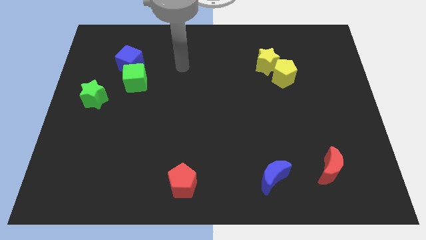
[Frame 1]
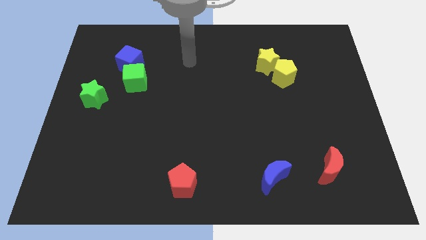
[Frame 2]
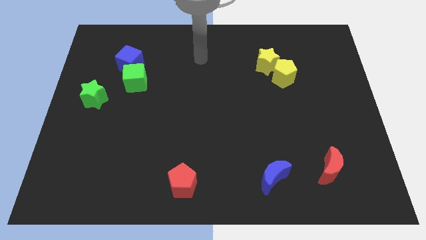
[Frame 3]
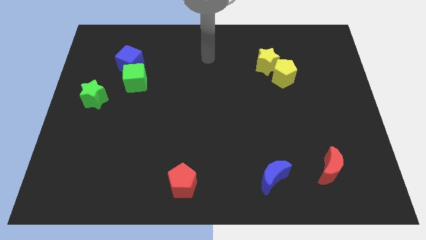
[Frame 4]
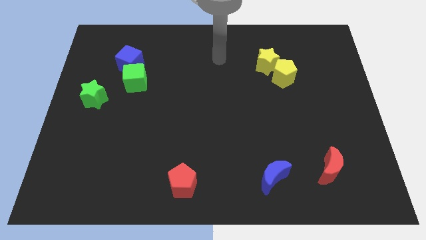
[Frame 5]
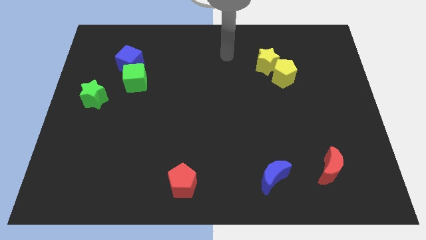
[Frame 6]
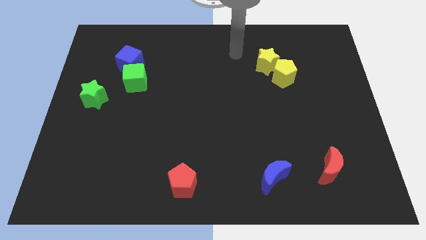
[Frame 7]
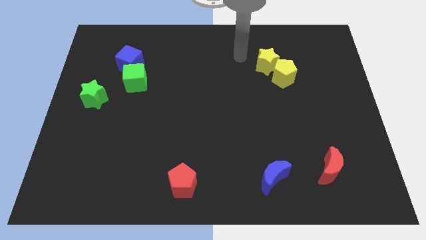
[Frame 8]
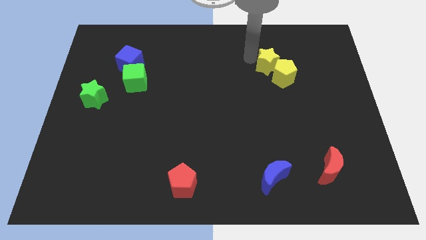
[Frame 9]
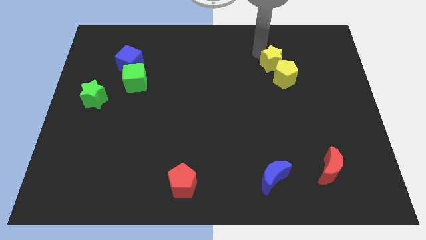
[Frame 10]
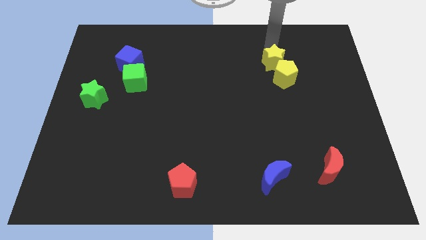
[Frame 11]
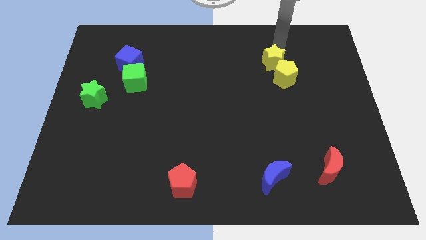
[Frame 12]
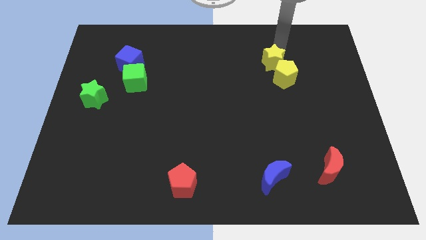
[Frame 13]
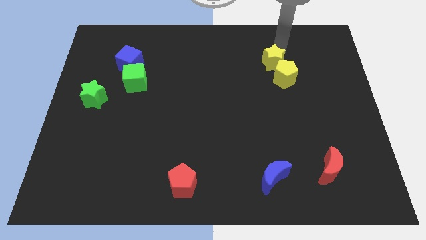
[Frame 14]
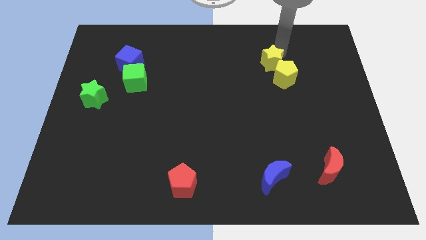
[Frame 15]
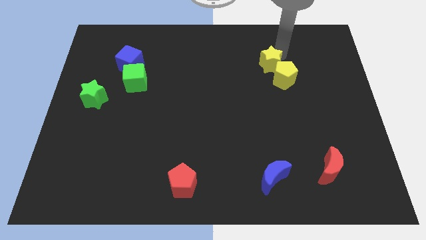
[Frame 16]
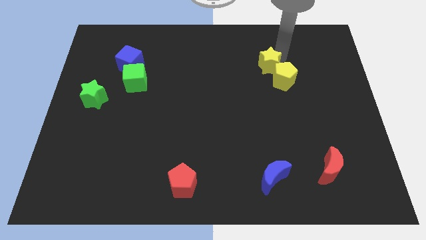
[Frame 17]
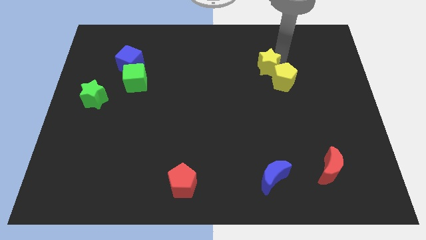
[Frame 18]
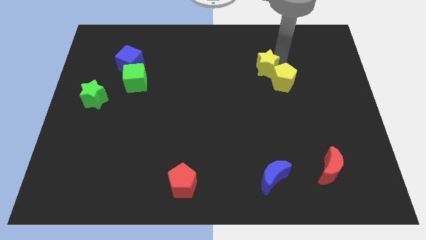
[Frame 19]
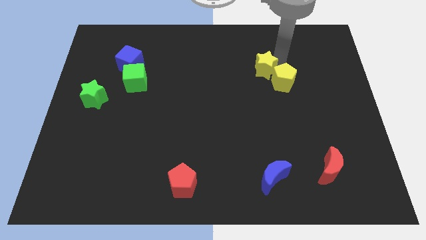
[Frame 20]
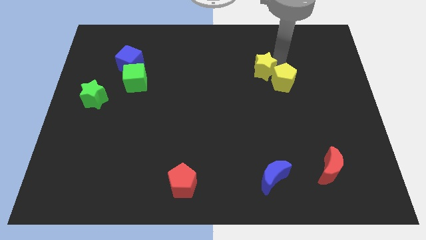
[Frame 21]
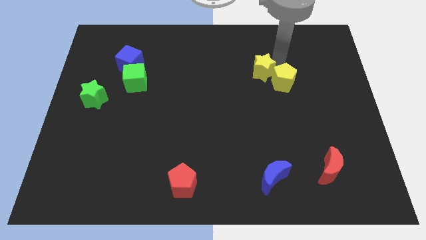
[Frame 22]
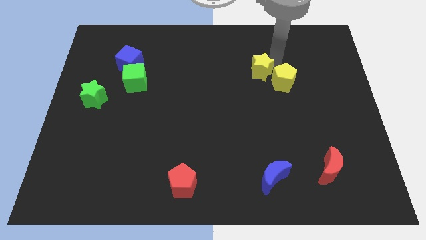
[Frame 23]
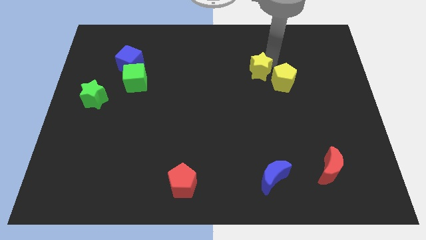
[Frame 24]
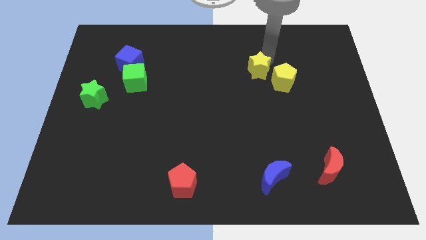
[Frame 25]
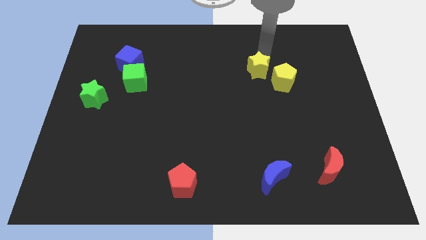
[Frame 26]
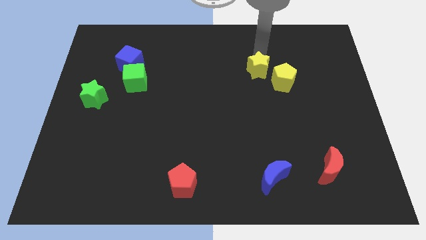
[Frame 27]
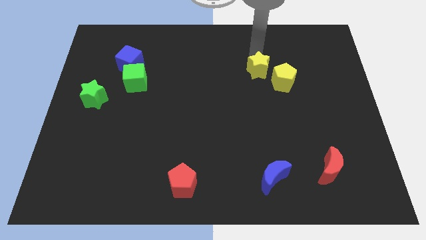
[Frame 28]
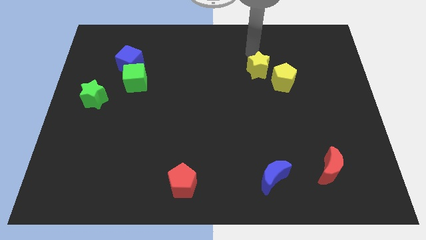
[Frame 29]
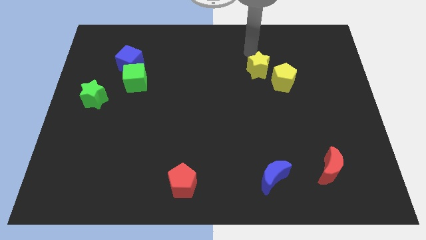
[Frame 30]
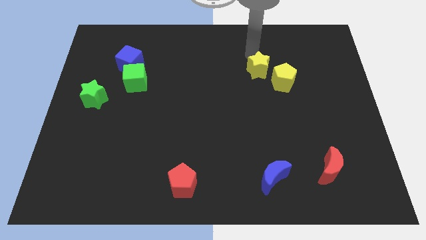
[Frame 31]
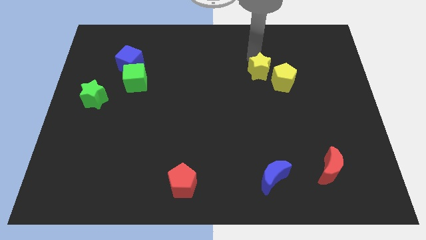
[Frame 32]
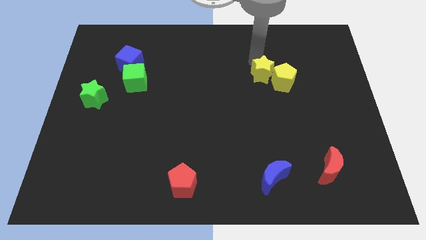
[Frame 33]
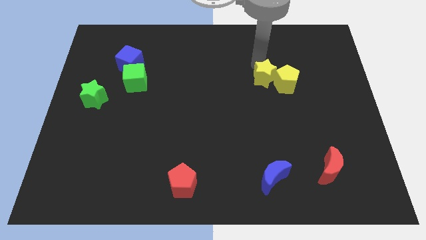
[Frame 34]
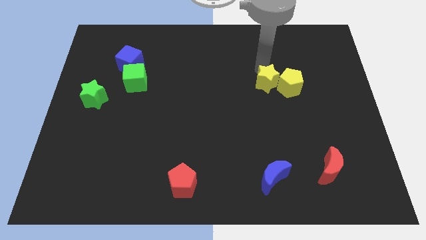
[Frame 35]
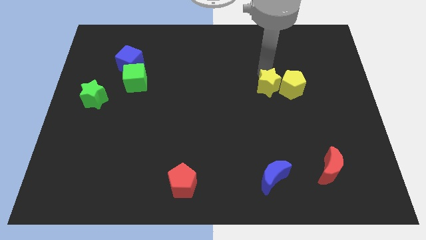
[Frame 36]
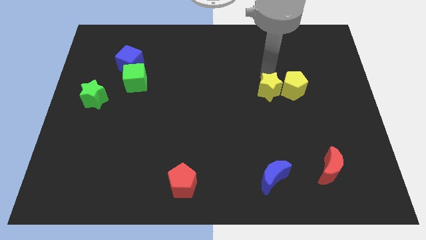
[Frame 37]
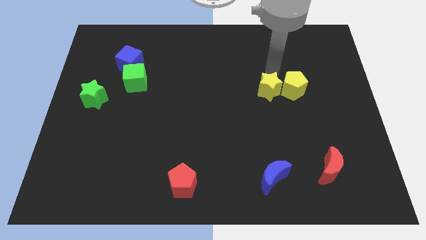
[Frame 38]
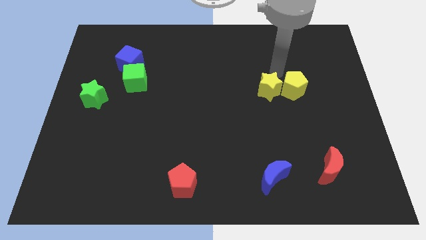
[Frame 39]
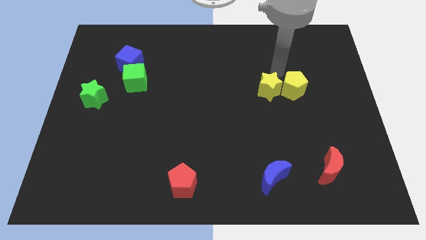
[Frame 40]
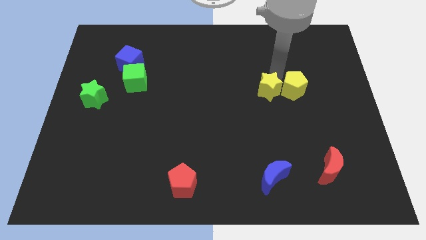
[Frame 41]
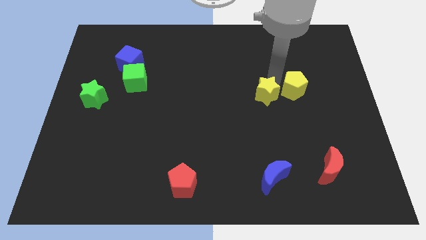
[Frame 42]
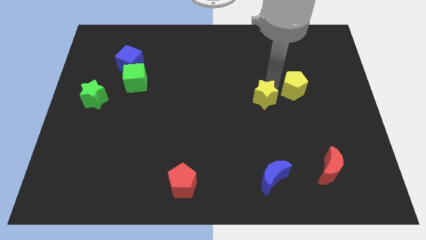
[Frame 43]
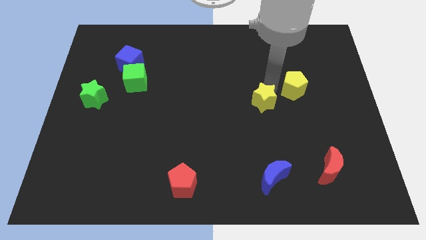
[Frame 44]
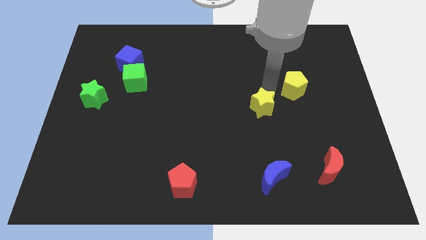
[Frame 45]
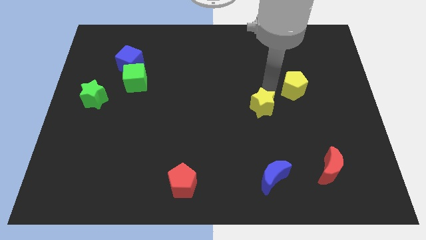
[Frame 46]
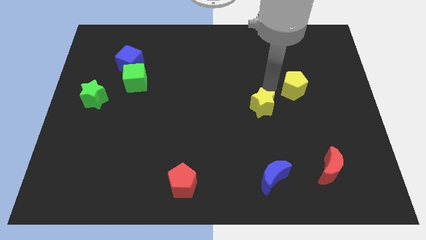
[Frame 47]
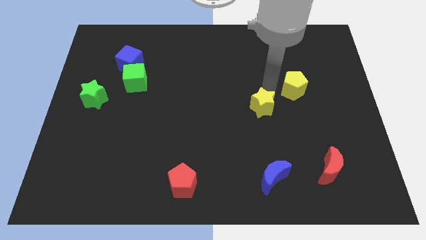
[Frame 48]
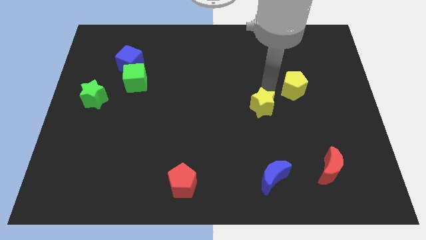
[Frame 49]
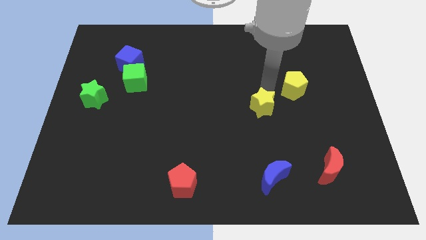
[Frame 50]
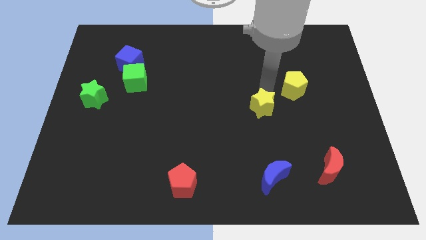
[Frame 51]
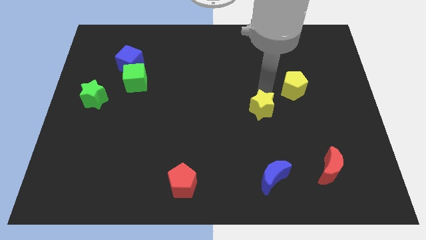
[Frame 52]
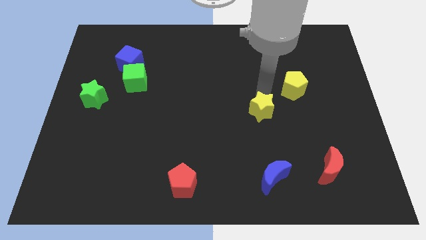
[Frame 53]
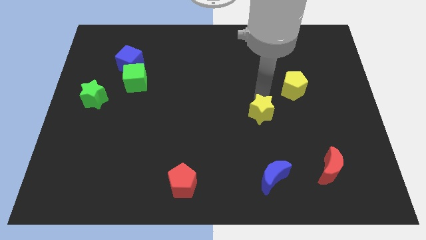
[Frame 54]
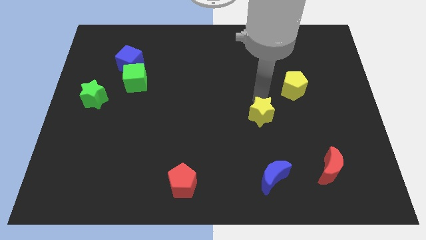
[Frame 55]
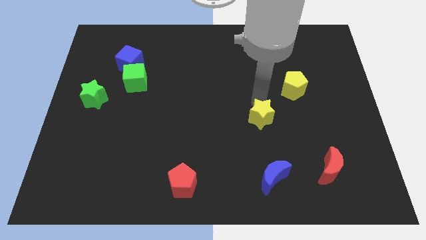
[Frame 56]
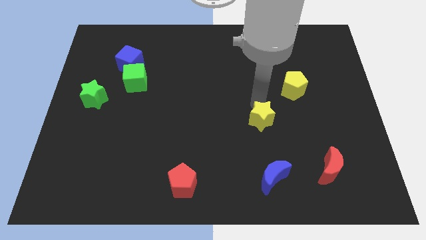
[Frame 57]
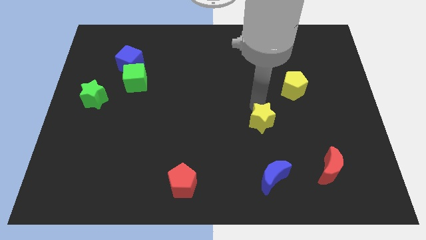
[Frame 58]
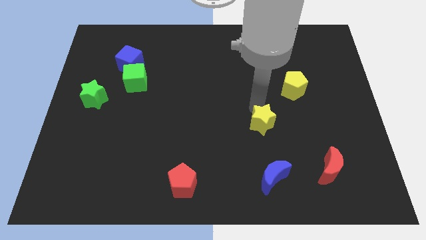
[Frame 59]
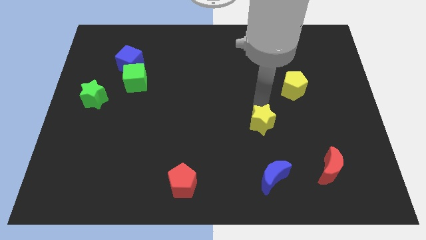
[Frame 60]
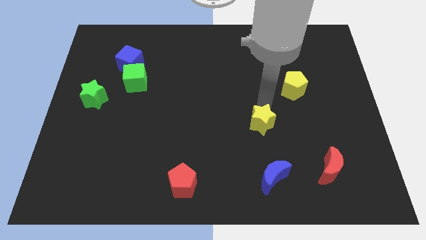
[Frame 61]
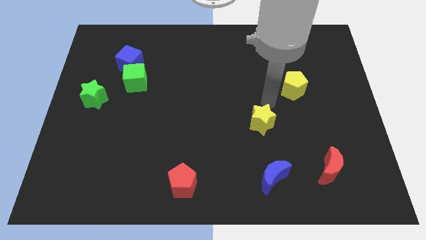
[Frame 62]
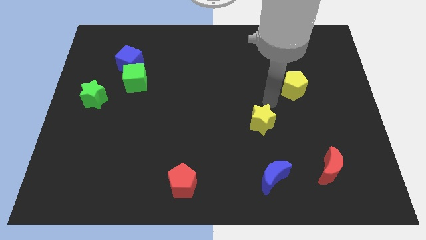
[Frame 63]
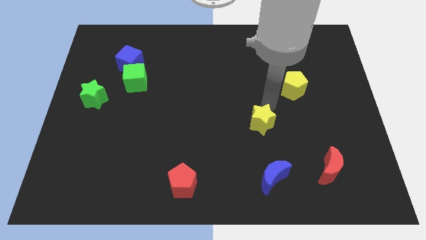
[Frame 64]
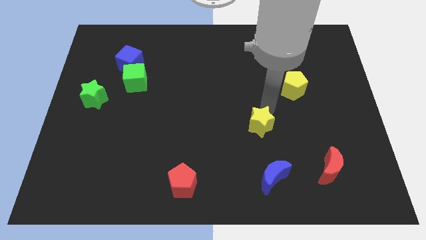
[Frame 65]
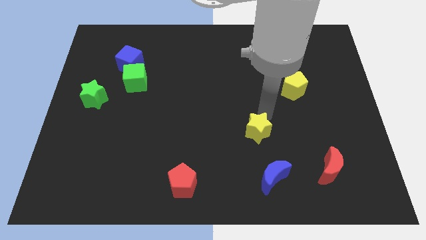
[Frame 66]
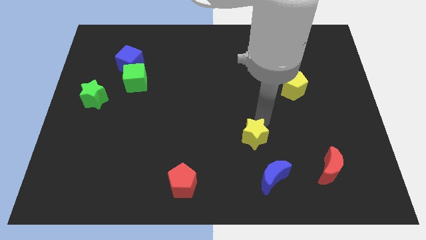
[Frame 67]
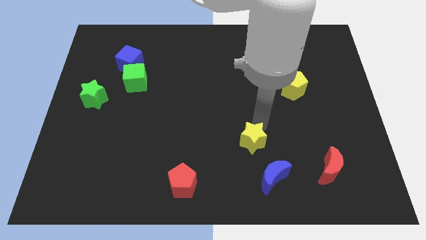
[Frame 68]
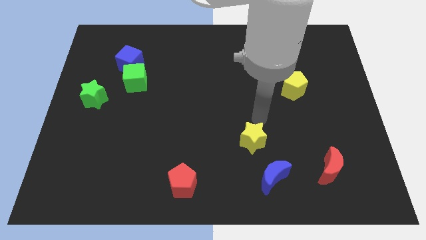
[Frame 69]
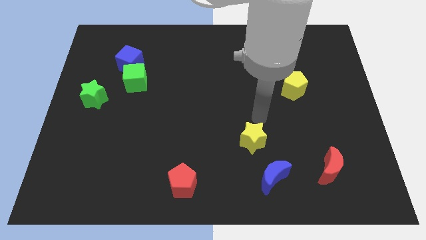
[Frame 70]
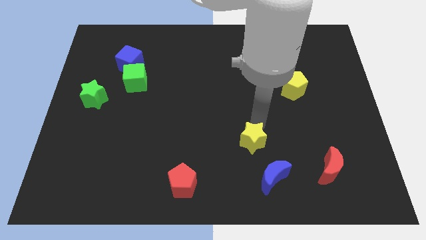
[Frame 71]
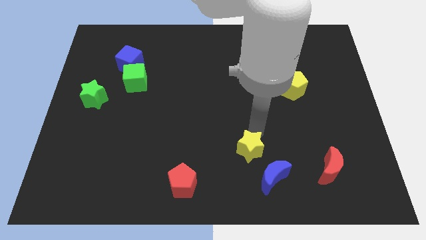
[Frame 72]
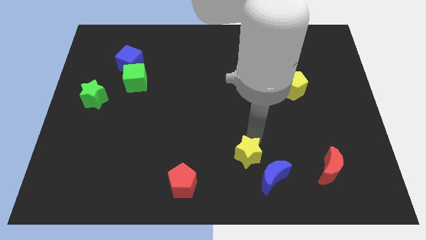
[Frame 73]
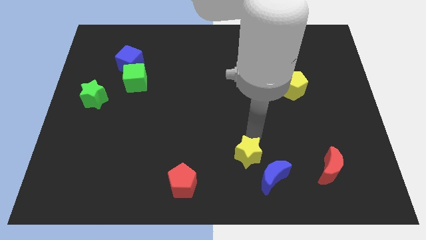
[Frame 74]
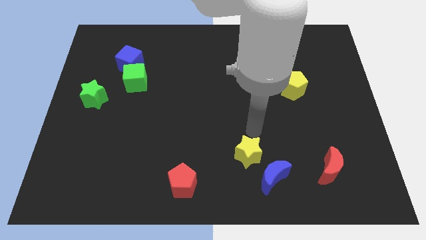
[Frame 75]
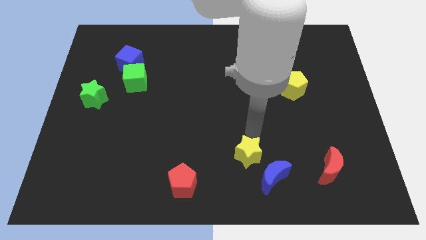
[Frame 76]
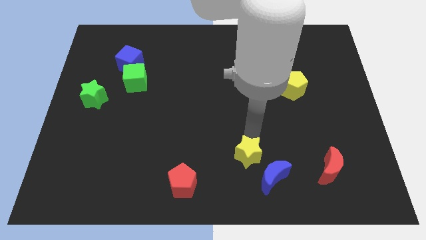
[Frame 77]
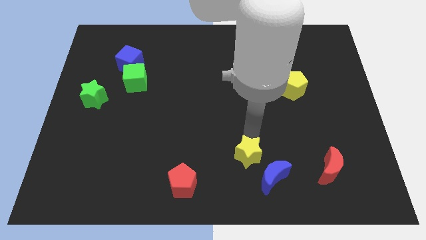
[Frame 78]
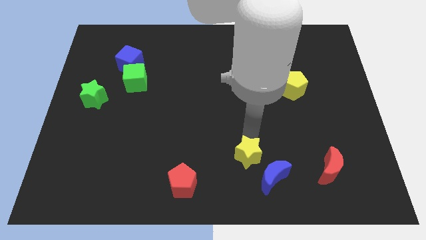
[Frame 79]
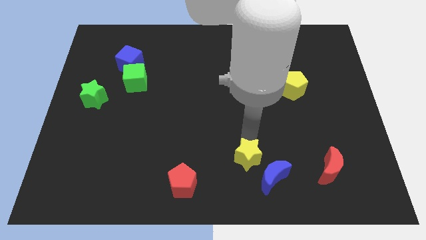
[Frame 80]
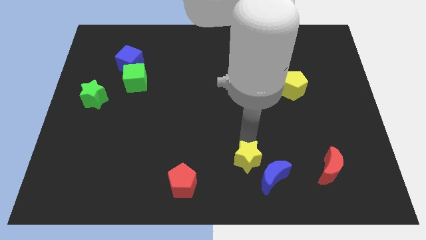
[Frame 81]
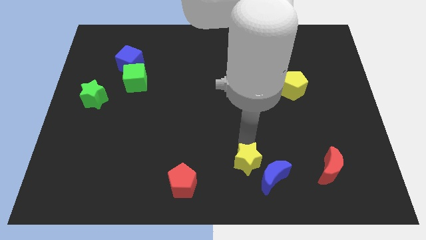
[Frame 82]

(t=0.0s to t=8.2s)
push the yellow star to the bottom side
